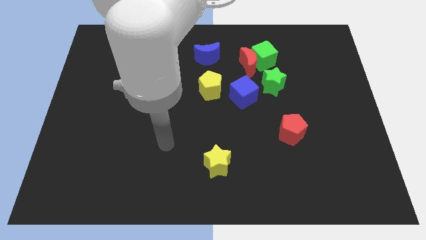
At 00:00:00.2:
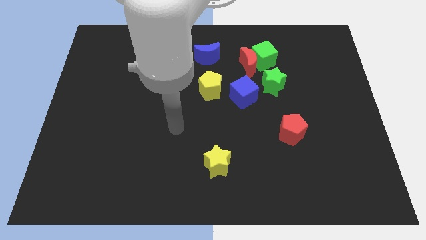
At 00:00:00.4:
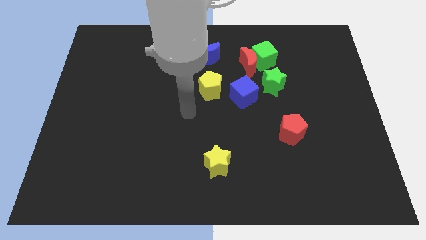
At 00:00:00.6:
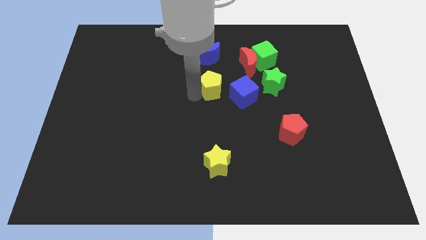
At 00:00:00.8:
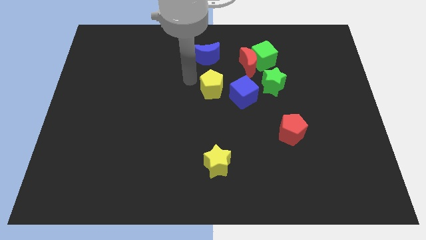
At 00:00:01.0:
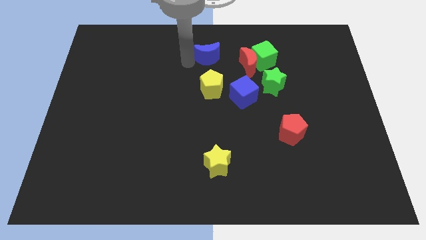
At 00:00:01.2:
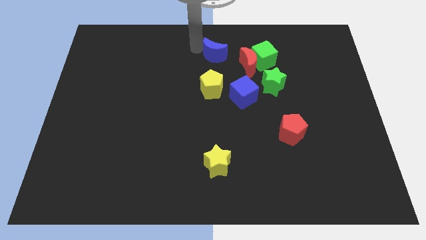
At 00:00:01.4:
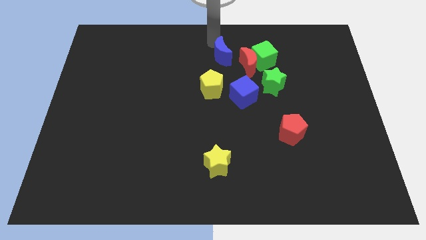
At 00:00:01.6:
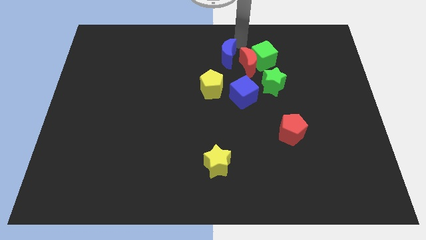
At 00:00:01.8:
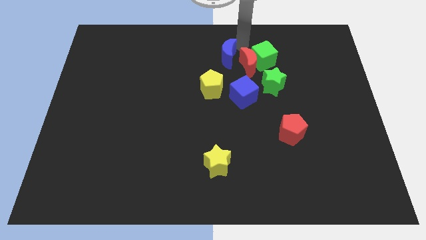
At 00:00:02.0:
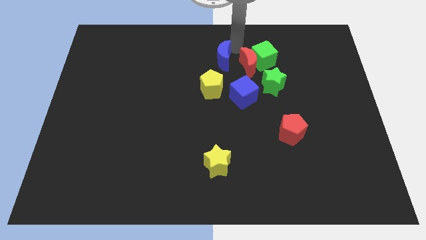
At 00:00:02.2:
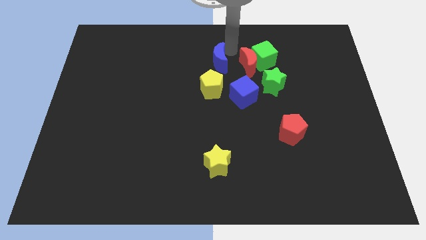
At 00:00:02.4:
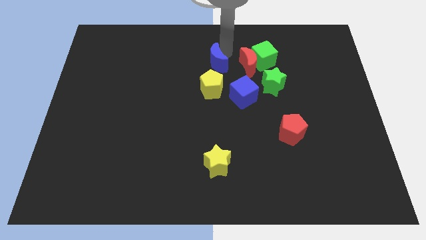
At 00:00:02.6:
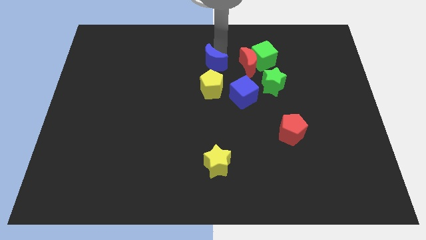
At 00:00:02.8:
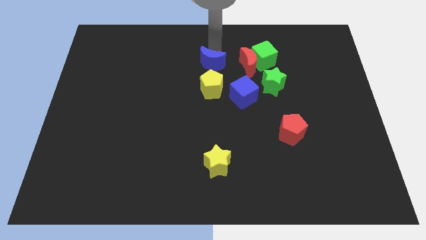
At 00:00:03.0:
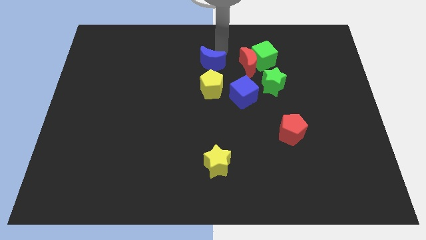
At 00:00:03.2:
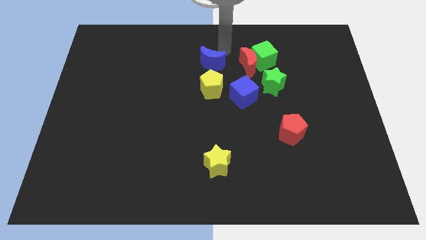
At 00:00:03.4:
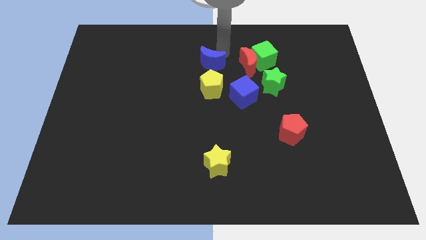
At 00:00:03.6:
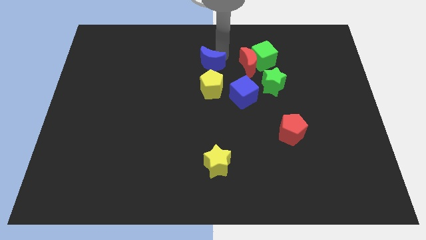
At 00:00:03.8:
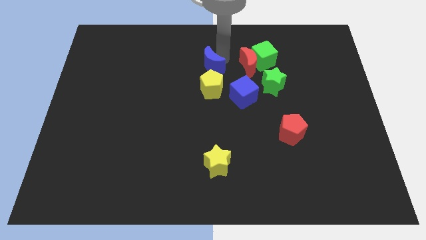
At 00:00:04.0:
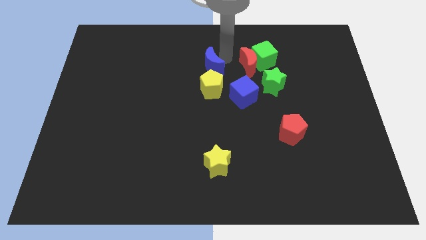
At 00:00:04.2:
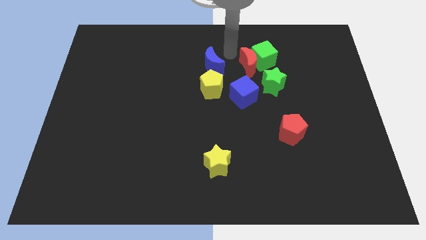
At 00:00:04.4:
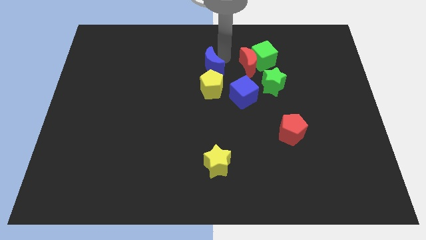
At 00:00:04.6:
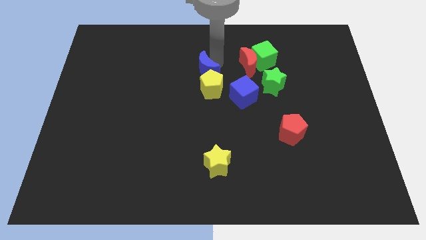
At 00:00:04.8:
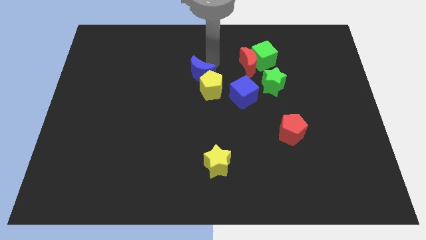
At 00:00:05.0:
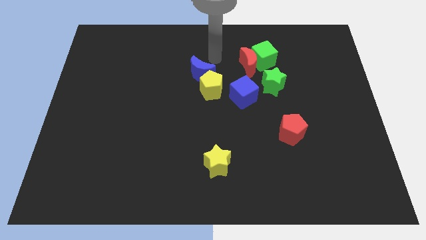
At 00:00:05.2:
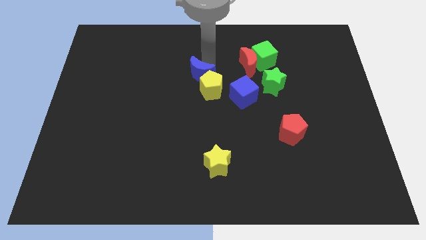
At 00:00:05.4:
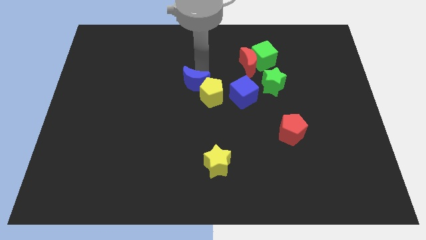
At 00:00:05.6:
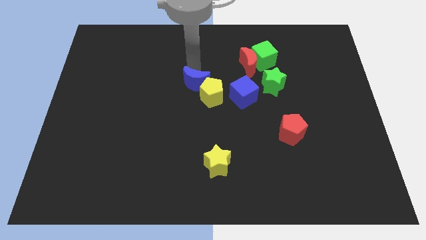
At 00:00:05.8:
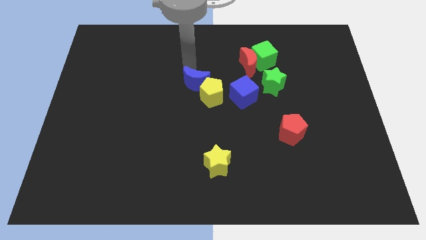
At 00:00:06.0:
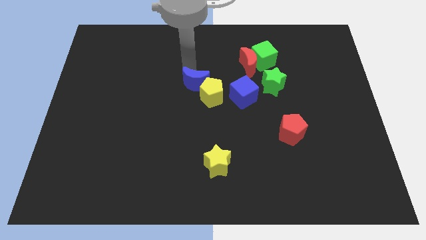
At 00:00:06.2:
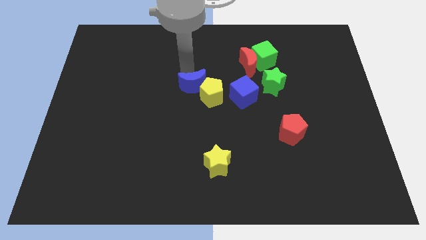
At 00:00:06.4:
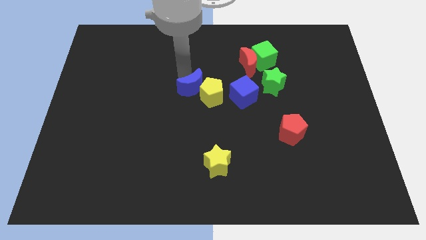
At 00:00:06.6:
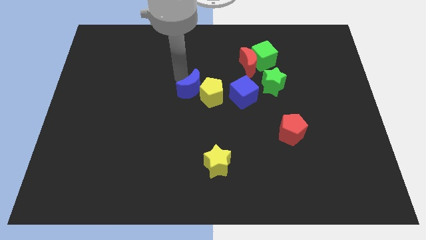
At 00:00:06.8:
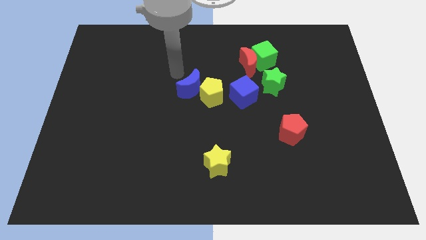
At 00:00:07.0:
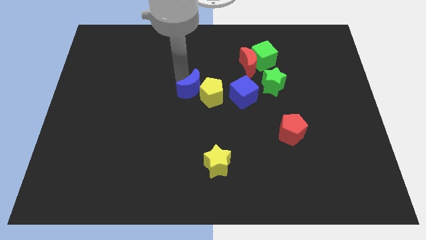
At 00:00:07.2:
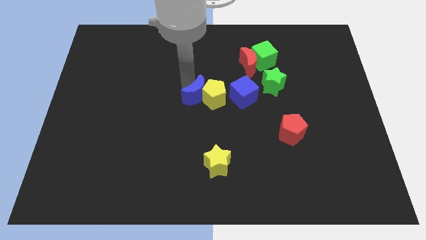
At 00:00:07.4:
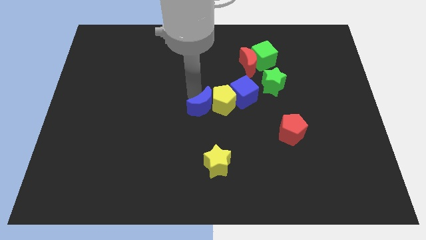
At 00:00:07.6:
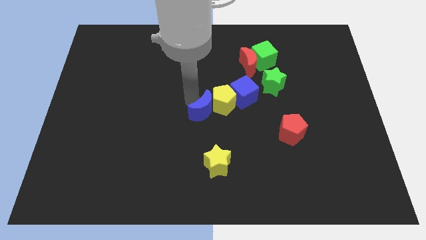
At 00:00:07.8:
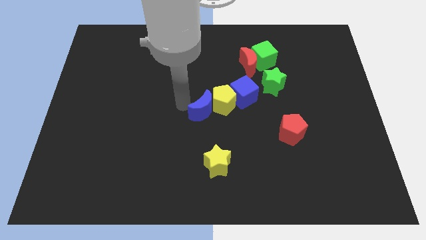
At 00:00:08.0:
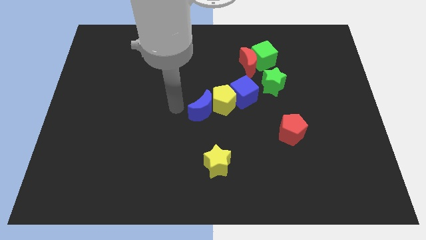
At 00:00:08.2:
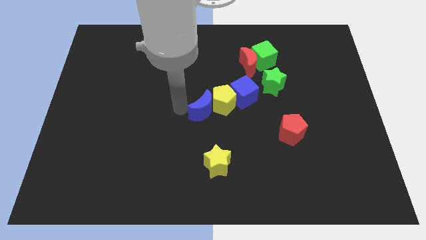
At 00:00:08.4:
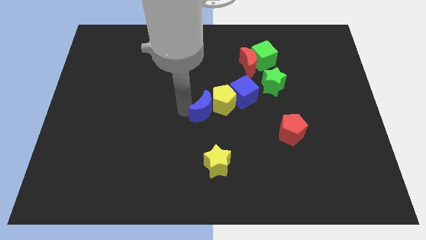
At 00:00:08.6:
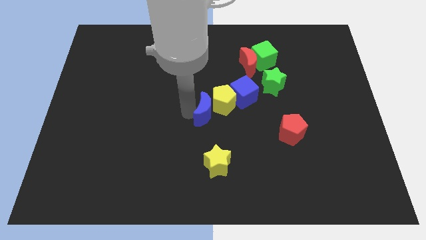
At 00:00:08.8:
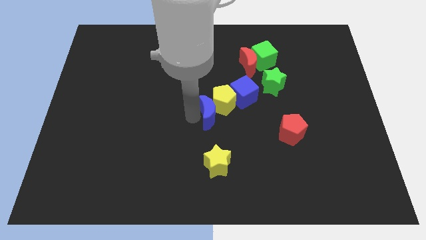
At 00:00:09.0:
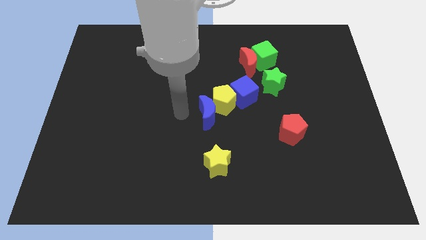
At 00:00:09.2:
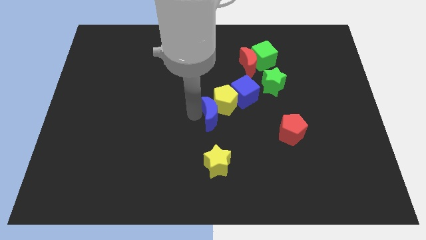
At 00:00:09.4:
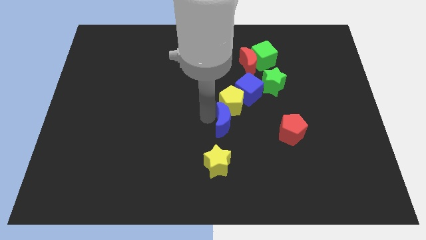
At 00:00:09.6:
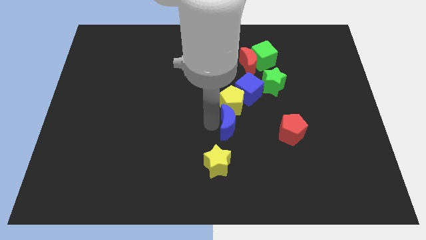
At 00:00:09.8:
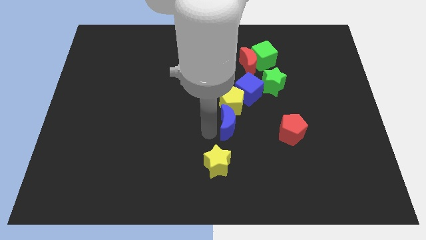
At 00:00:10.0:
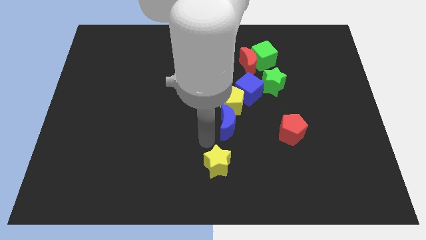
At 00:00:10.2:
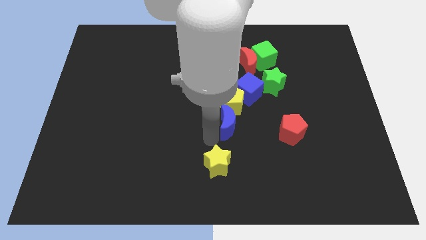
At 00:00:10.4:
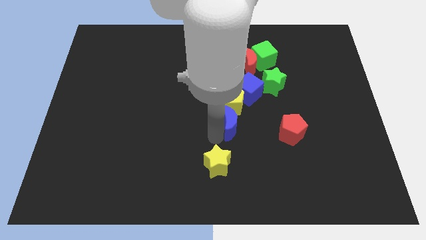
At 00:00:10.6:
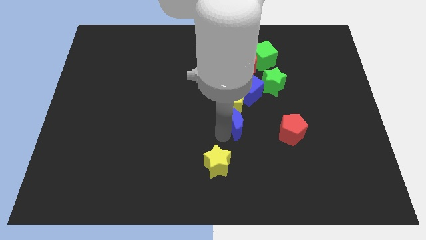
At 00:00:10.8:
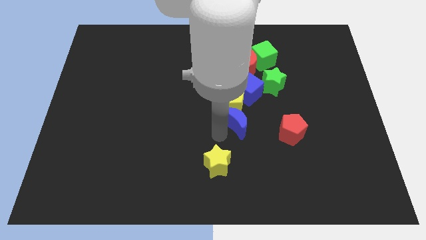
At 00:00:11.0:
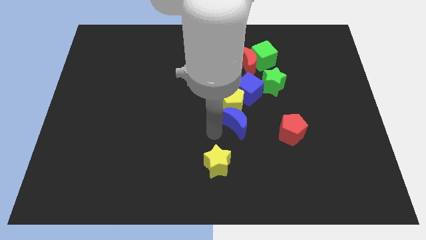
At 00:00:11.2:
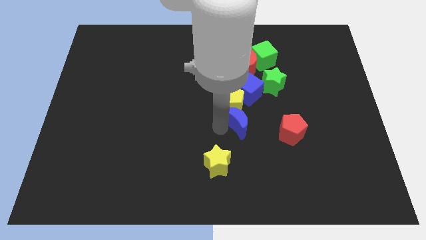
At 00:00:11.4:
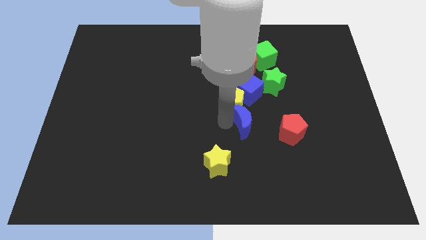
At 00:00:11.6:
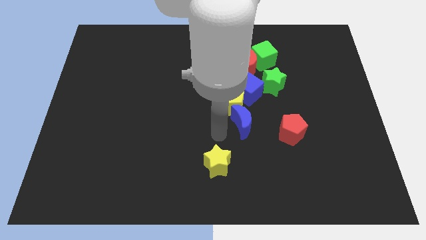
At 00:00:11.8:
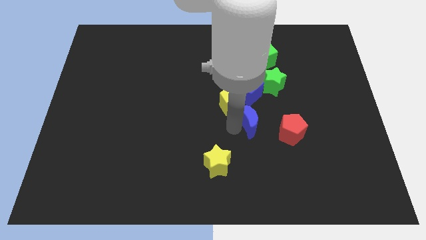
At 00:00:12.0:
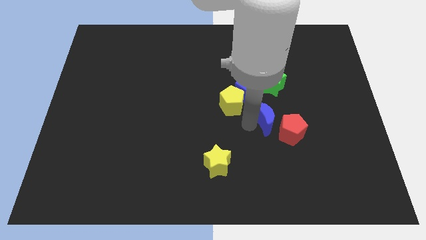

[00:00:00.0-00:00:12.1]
move the blue moon to the bottom right side of the blue cube

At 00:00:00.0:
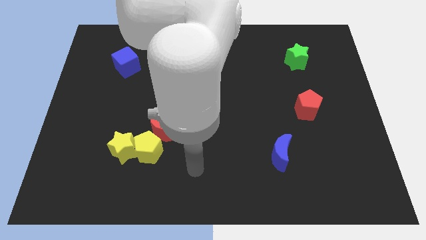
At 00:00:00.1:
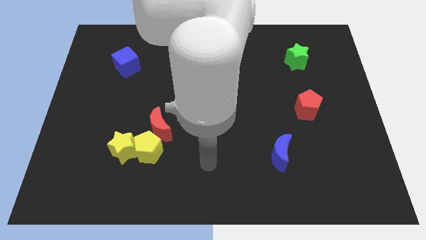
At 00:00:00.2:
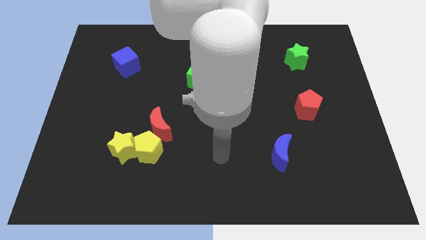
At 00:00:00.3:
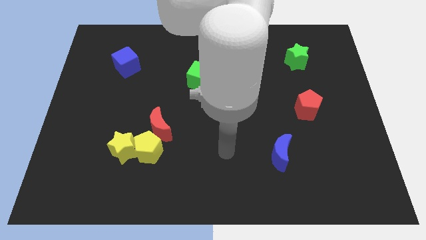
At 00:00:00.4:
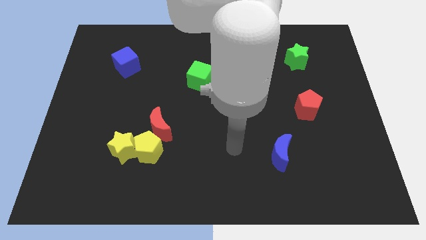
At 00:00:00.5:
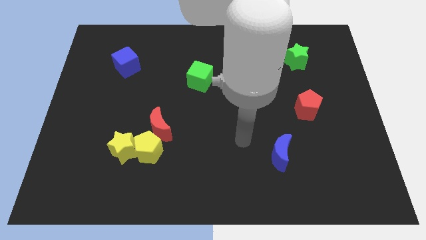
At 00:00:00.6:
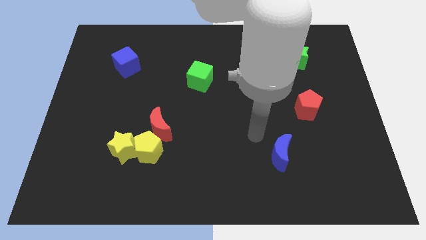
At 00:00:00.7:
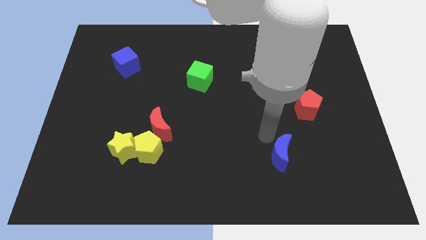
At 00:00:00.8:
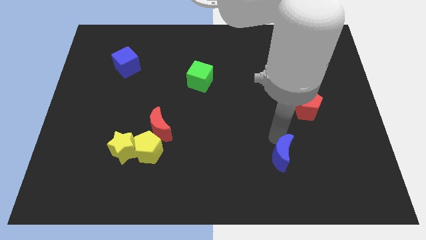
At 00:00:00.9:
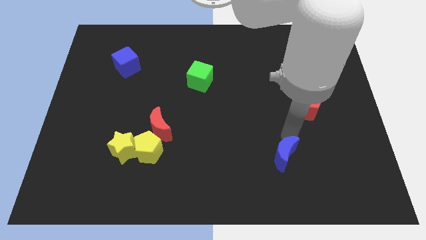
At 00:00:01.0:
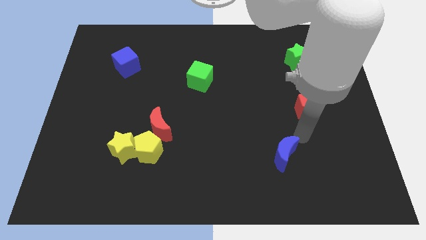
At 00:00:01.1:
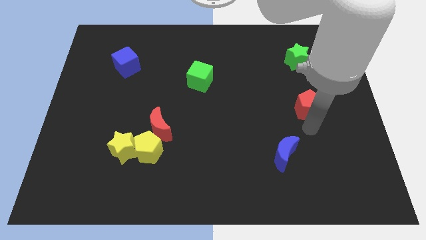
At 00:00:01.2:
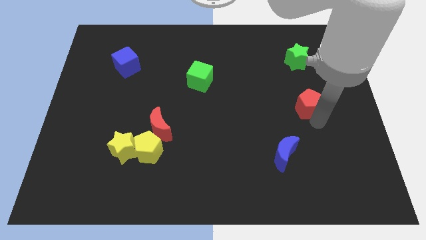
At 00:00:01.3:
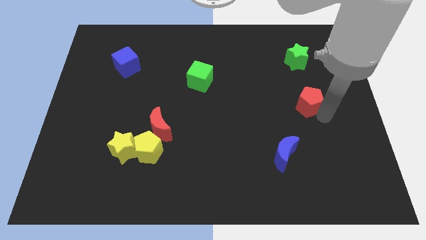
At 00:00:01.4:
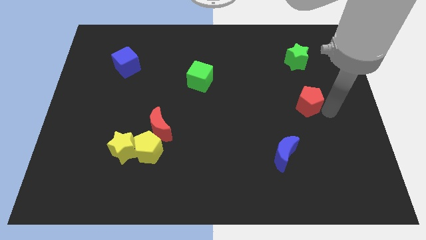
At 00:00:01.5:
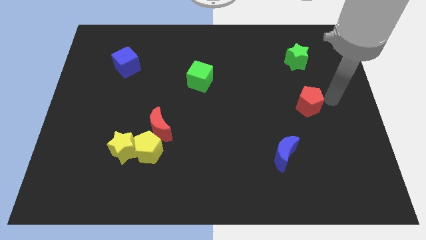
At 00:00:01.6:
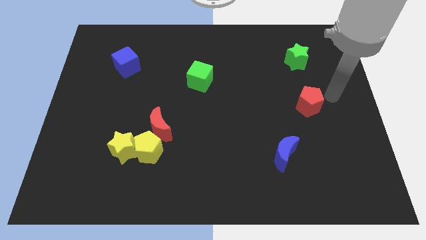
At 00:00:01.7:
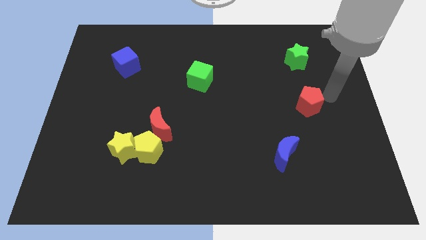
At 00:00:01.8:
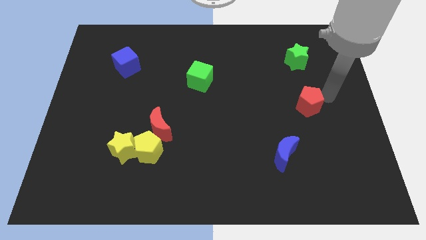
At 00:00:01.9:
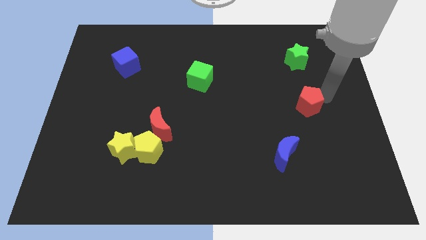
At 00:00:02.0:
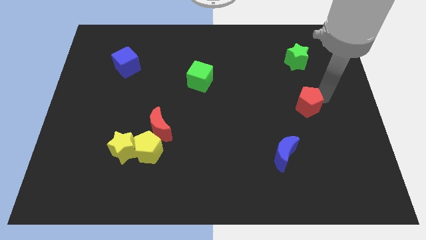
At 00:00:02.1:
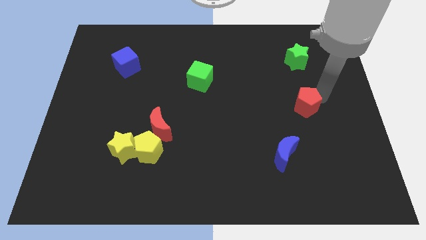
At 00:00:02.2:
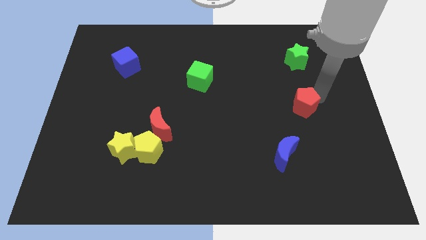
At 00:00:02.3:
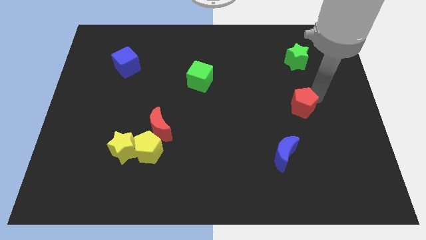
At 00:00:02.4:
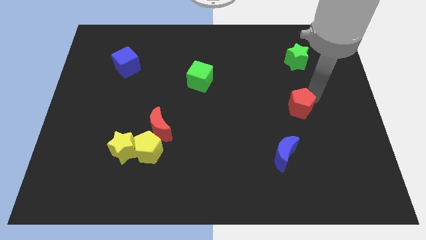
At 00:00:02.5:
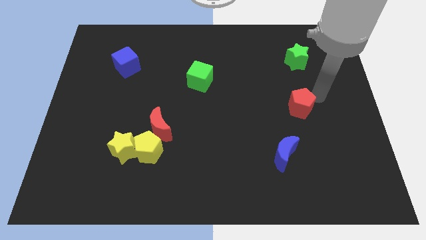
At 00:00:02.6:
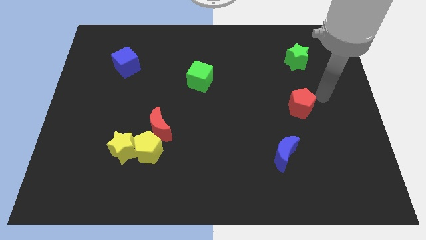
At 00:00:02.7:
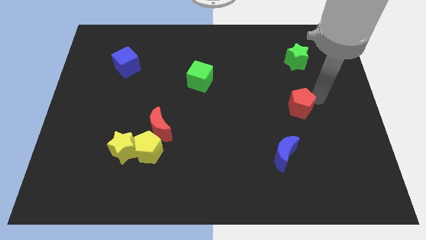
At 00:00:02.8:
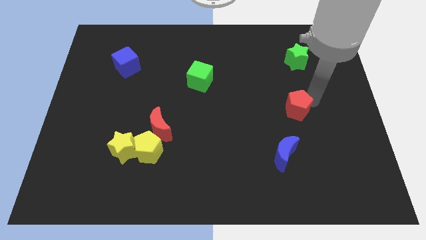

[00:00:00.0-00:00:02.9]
move the red pentagon to the top of the blue moon
